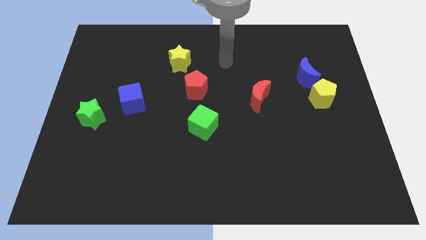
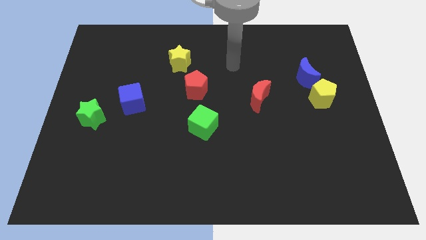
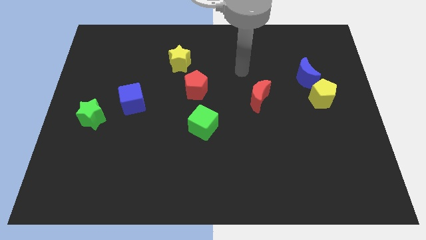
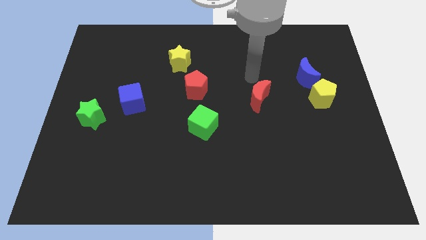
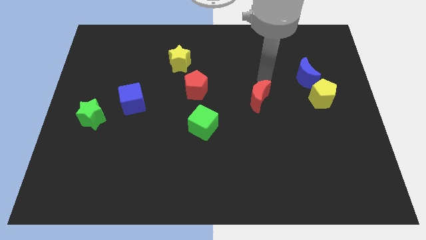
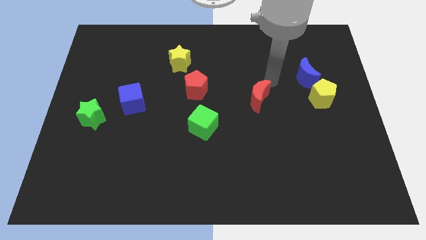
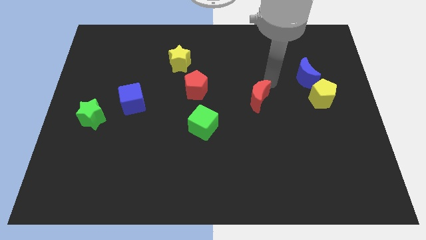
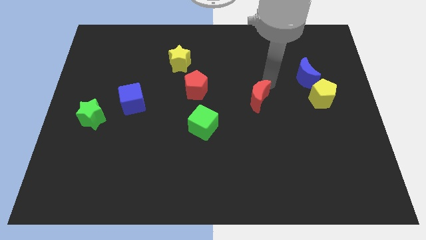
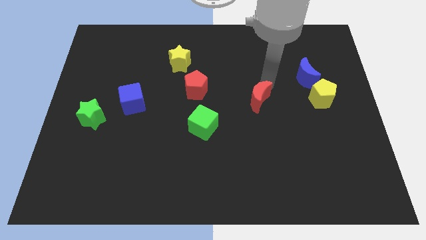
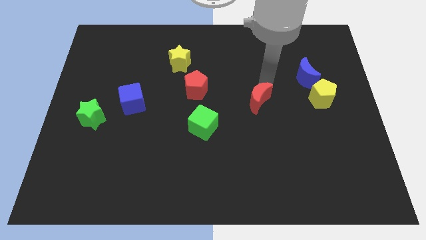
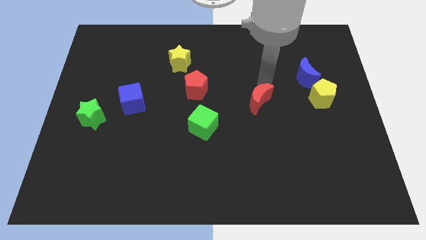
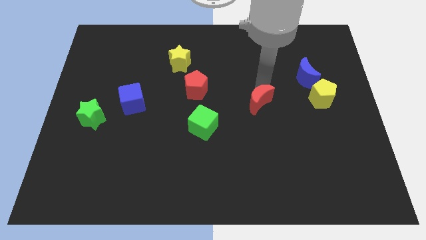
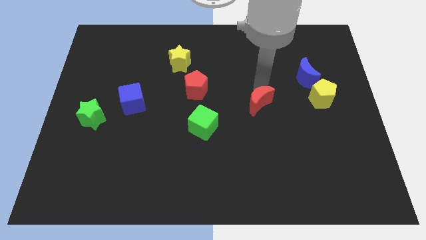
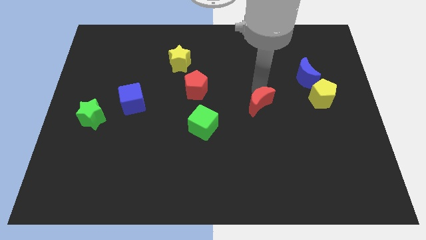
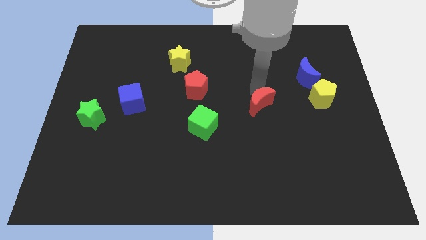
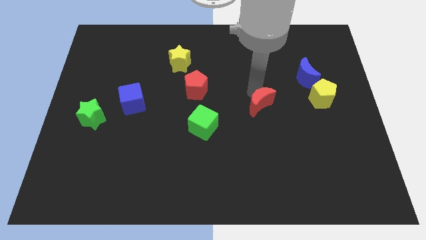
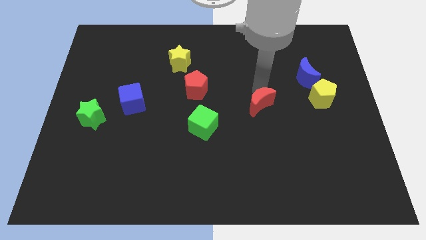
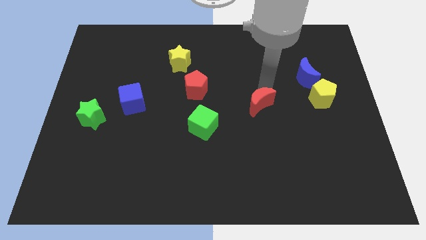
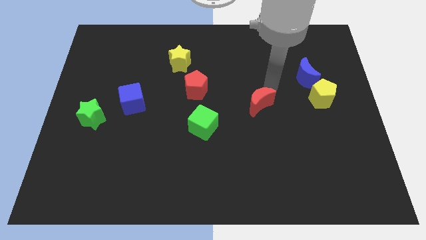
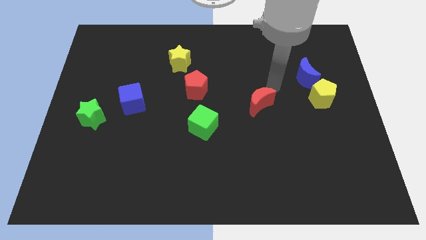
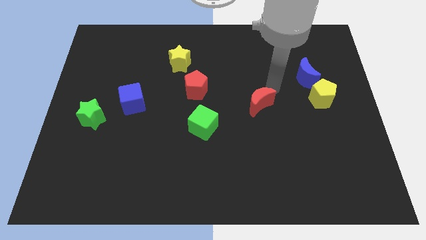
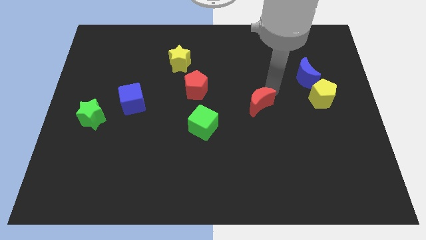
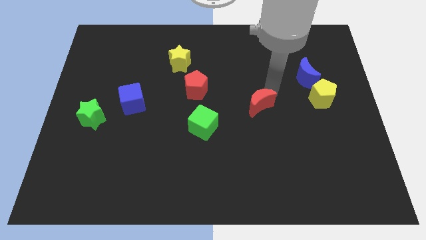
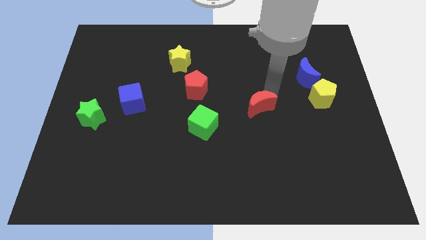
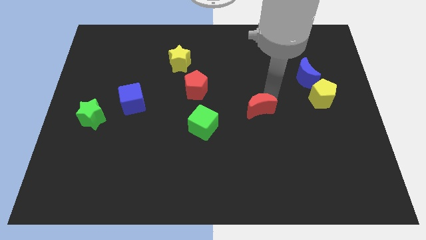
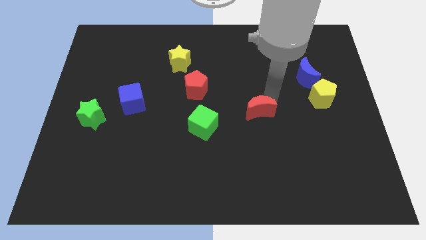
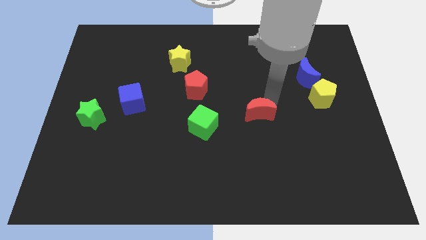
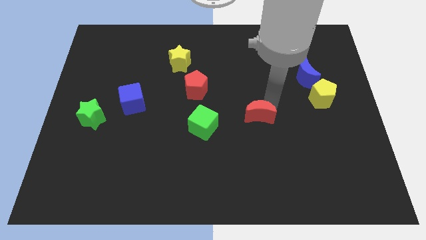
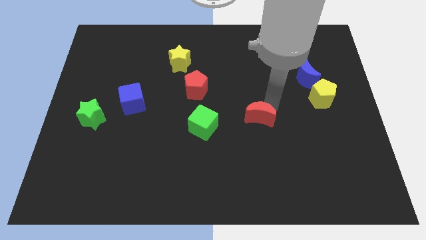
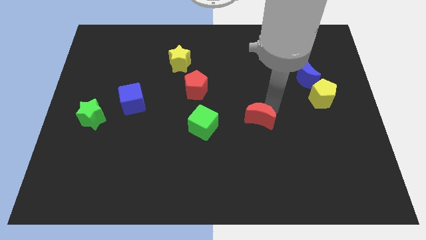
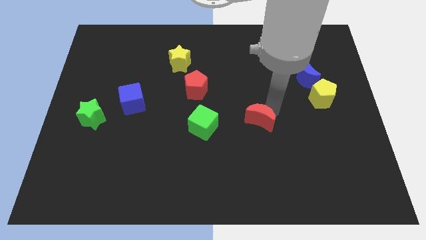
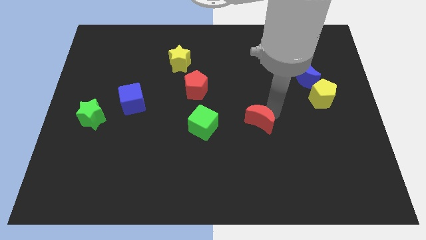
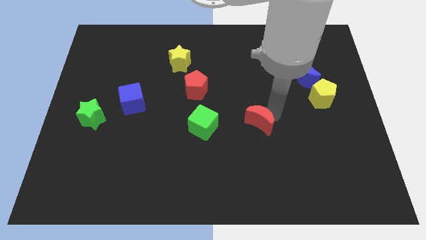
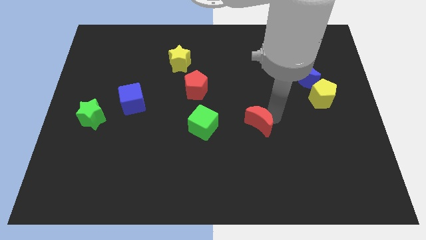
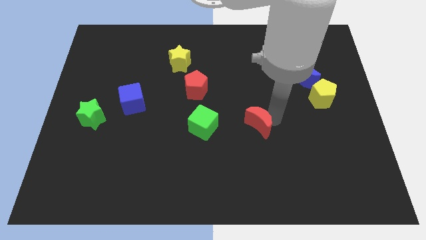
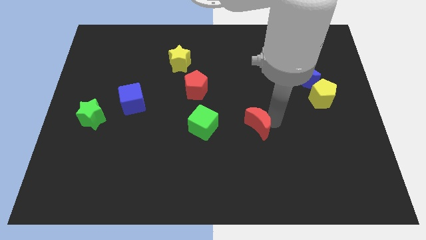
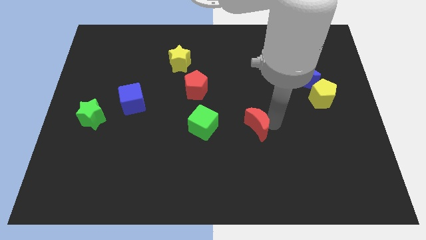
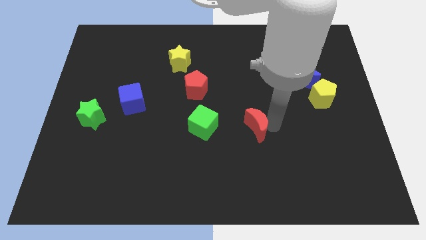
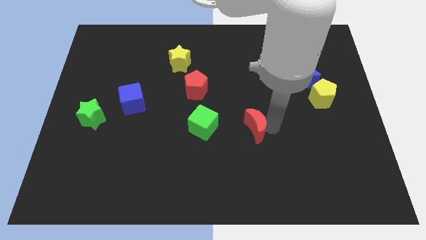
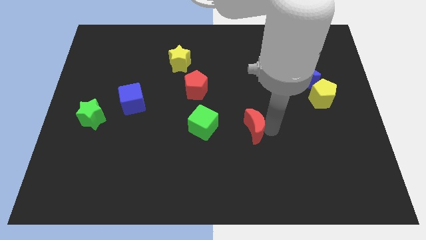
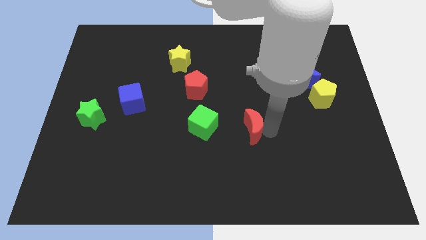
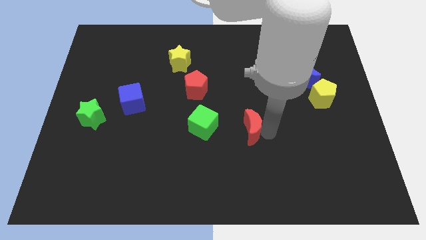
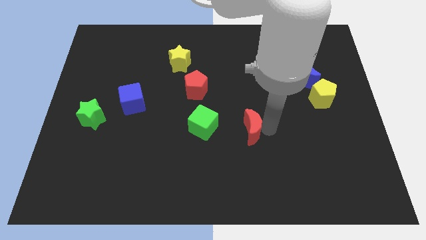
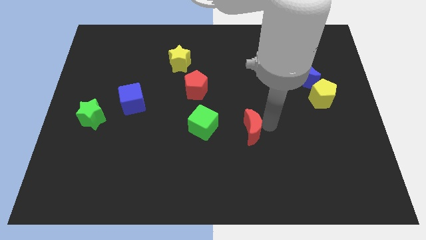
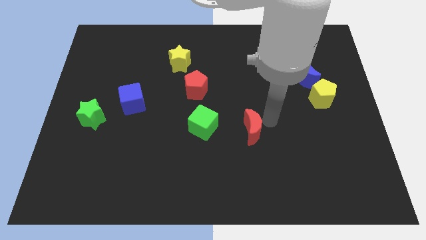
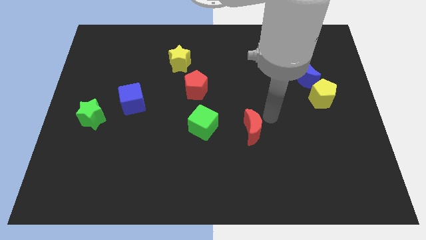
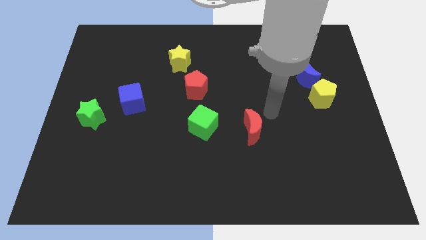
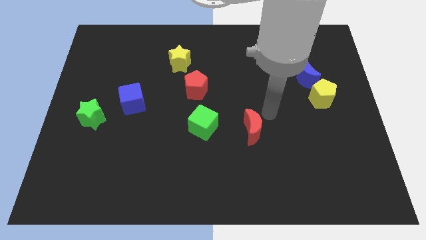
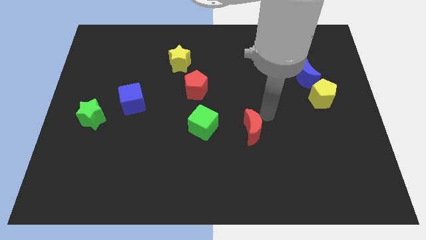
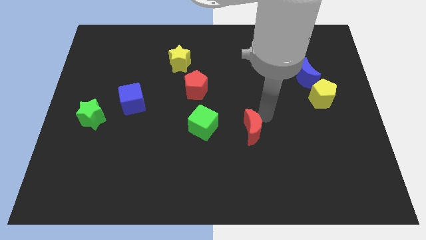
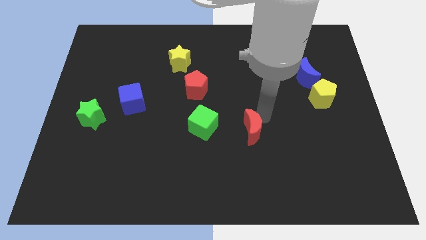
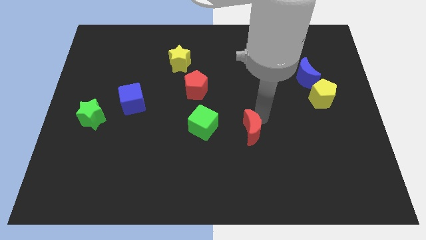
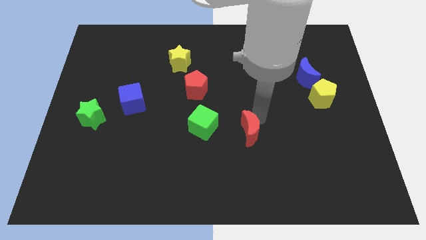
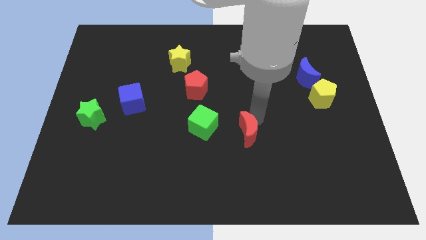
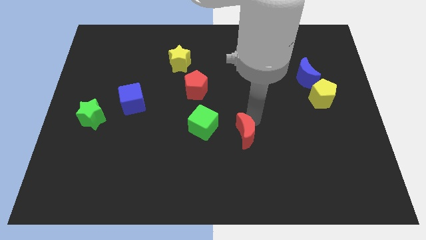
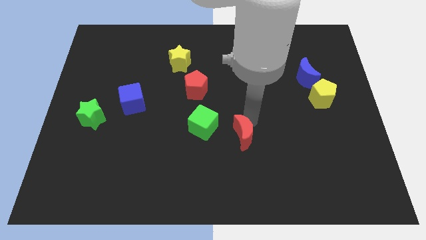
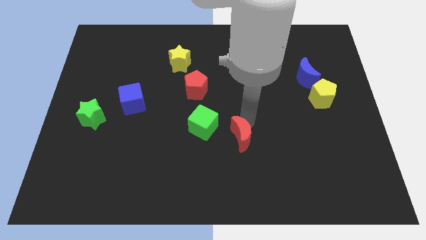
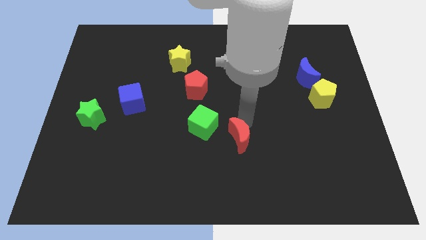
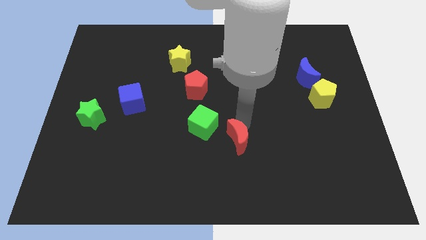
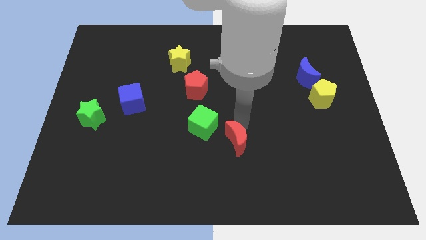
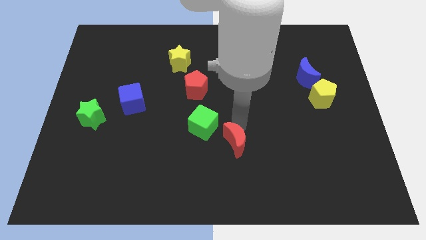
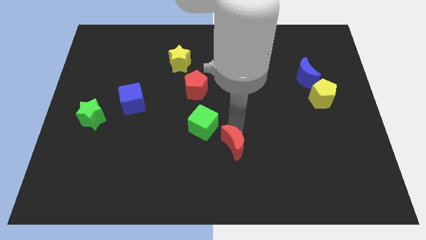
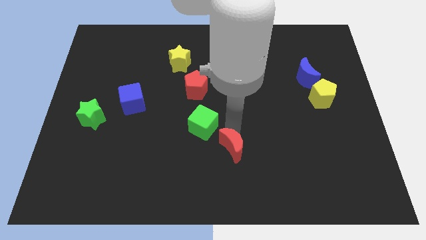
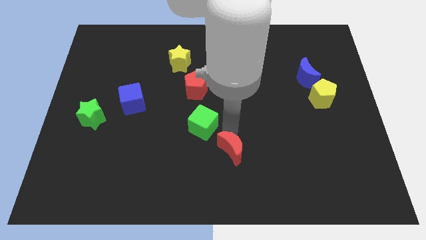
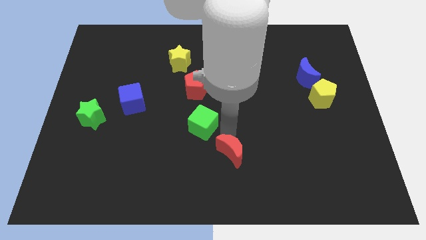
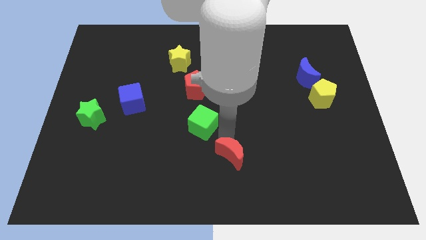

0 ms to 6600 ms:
move the red moon to the bottom

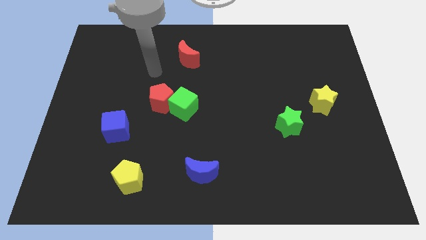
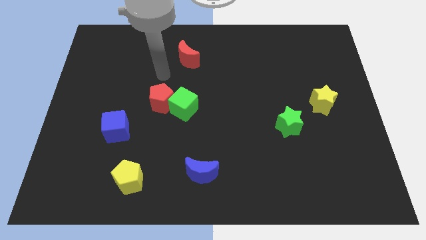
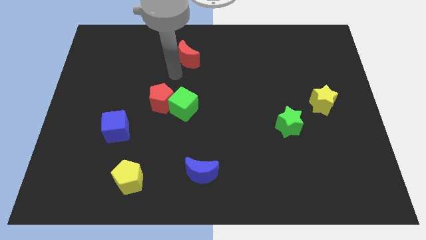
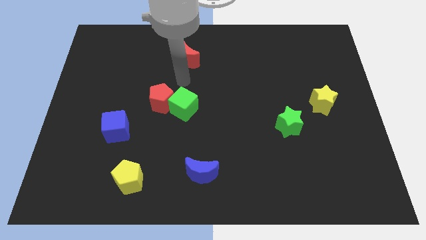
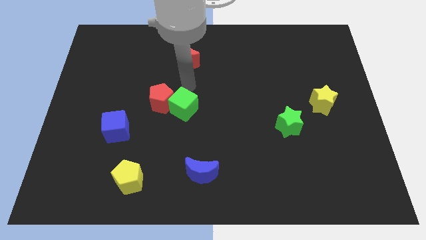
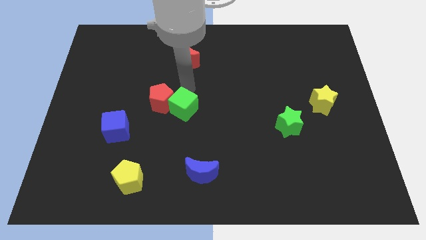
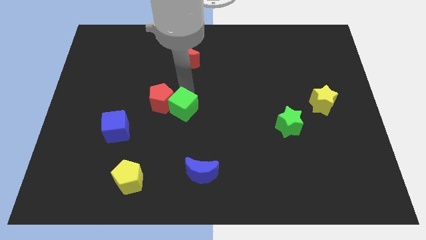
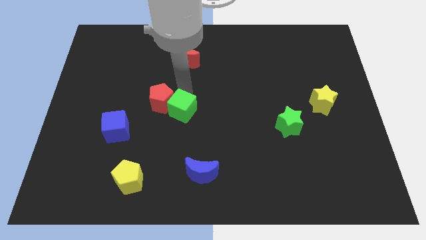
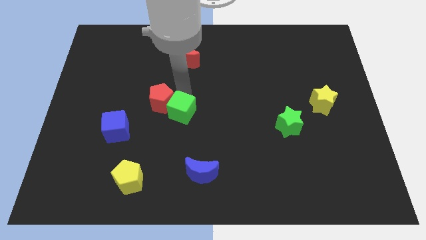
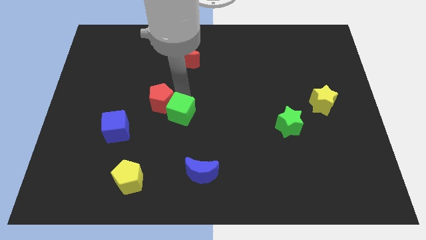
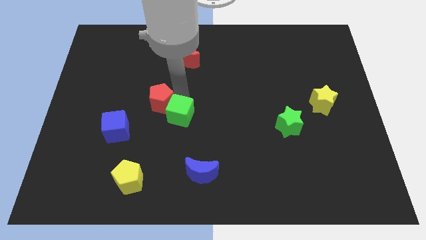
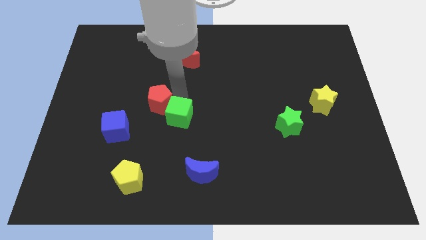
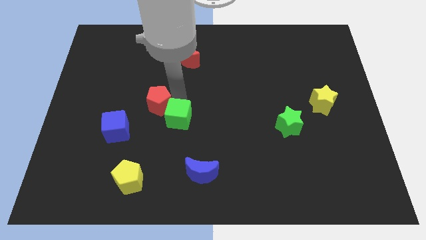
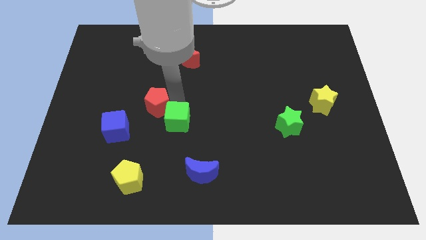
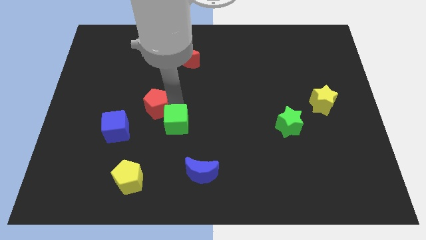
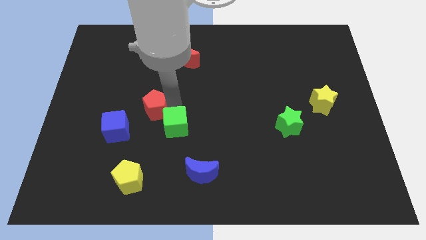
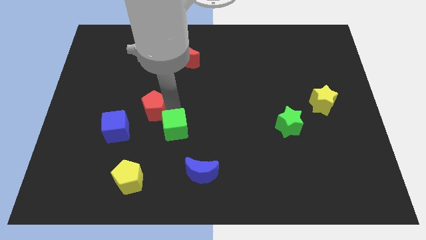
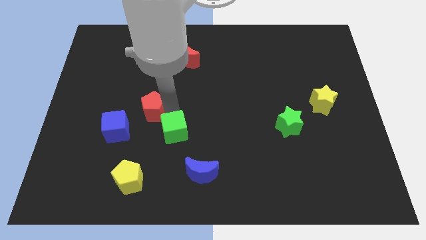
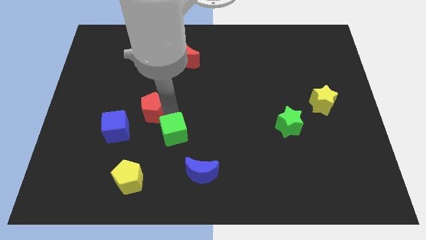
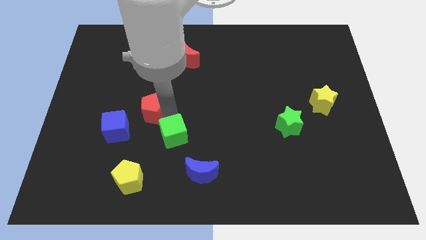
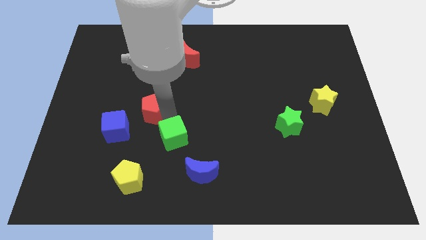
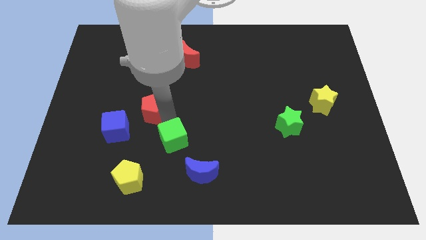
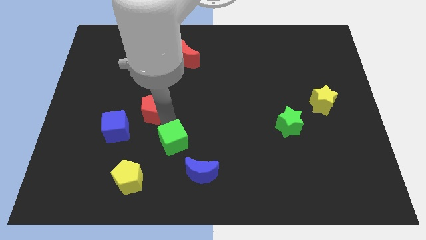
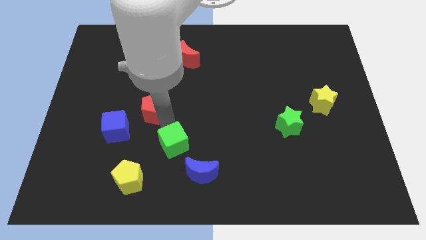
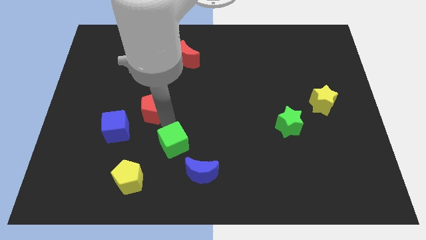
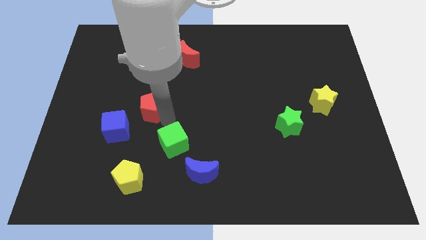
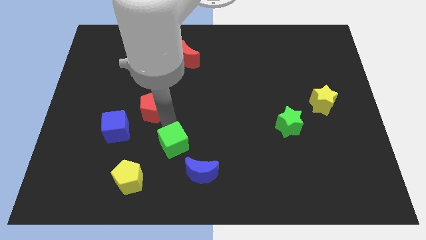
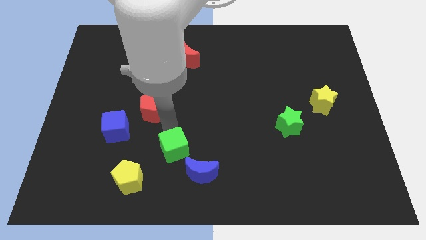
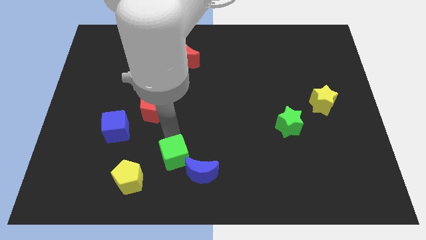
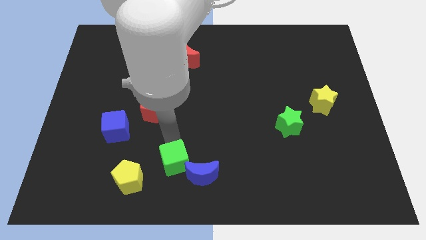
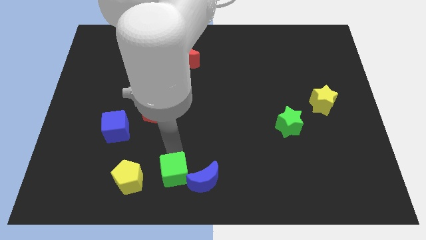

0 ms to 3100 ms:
push the green cube to the bottom
